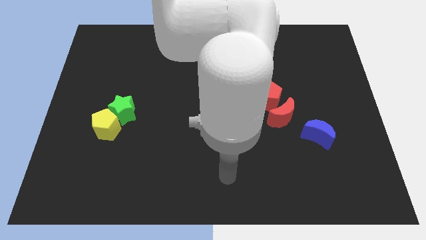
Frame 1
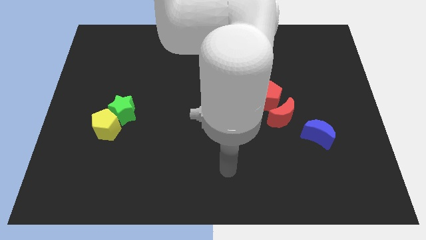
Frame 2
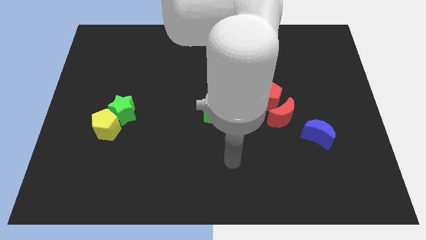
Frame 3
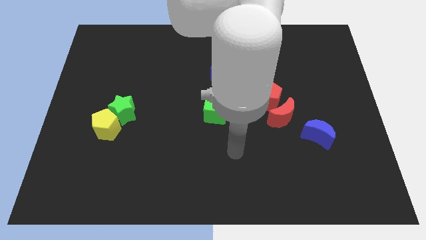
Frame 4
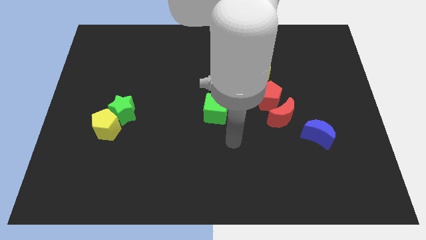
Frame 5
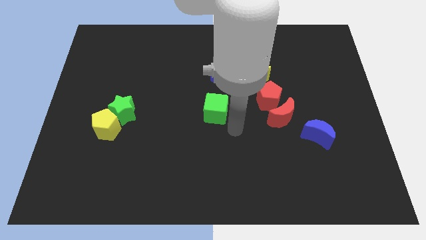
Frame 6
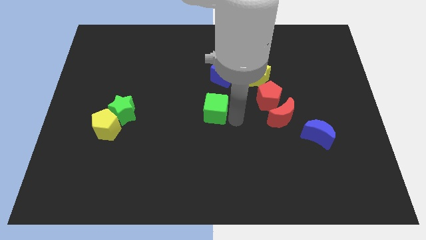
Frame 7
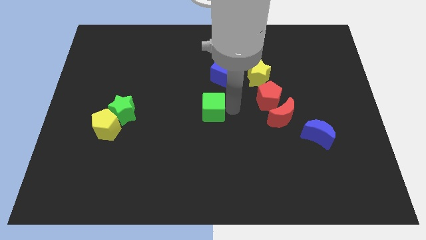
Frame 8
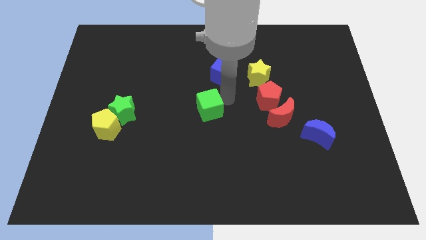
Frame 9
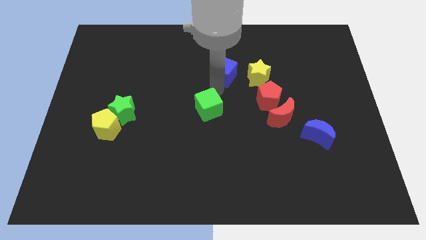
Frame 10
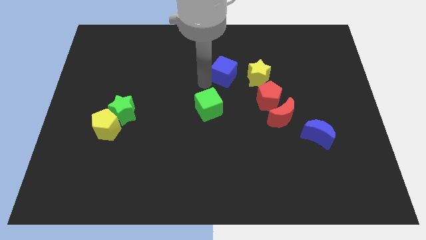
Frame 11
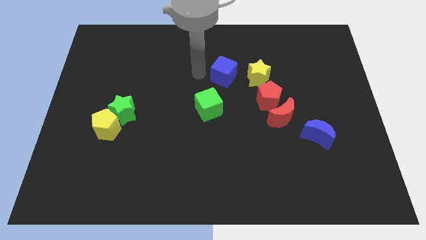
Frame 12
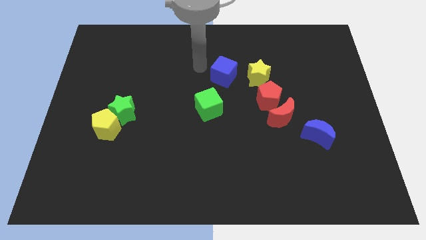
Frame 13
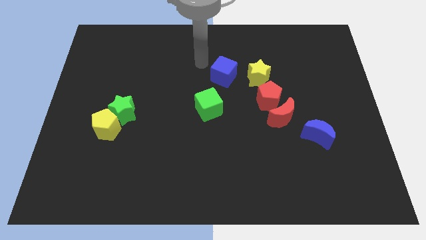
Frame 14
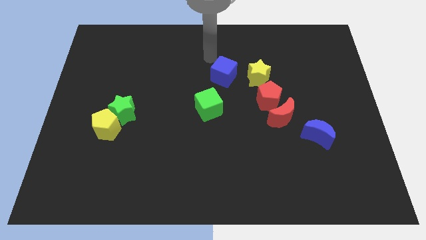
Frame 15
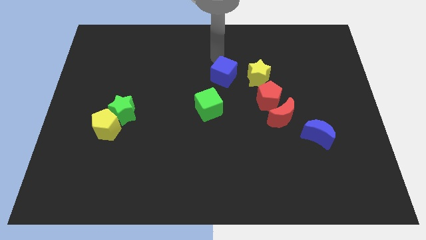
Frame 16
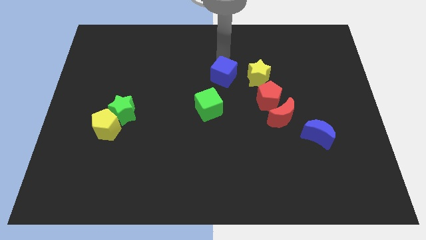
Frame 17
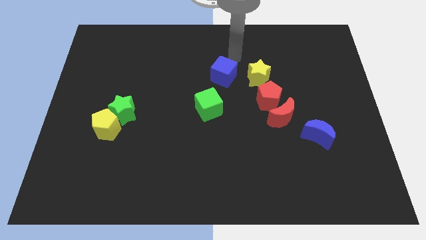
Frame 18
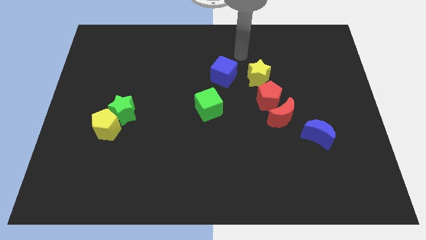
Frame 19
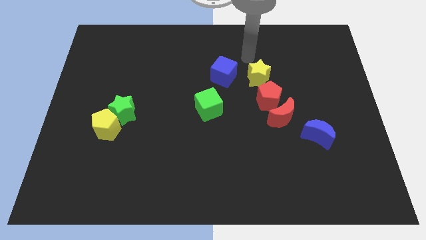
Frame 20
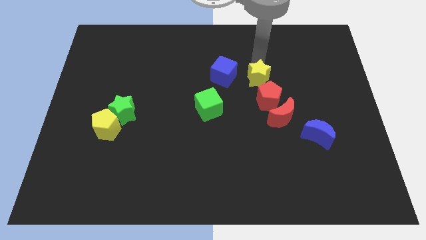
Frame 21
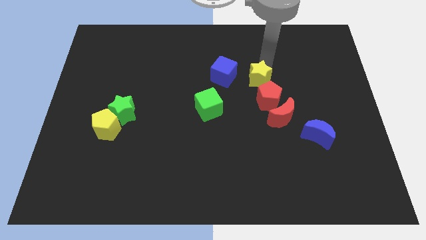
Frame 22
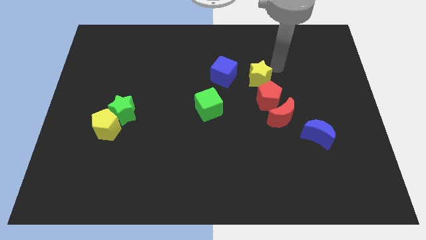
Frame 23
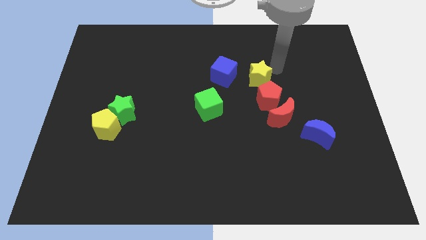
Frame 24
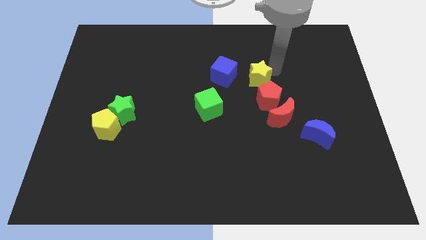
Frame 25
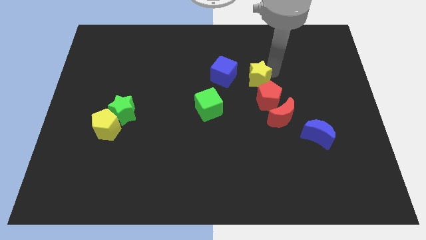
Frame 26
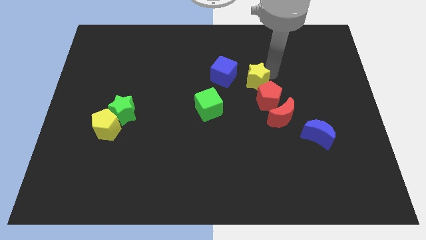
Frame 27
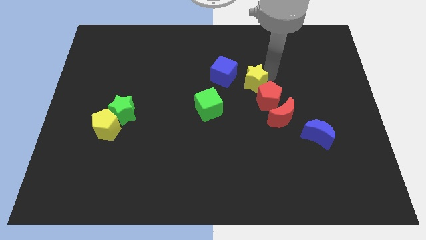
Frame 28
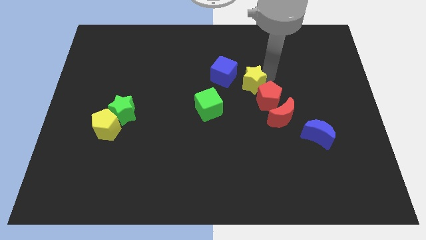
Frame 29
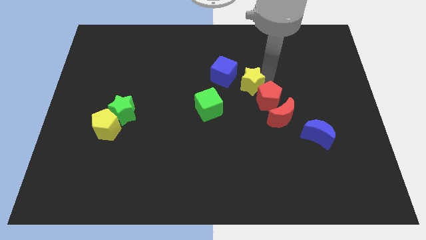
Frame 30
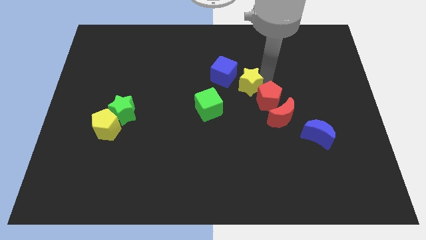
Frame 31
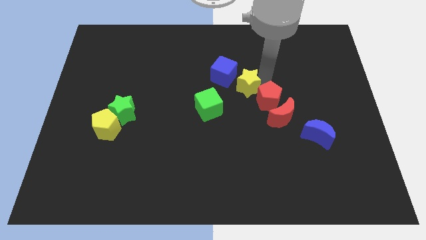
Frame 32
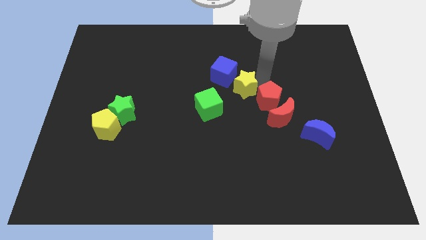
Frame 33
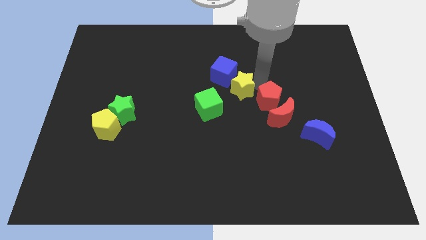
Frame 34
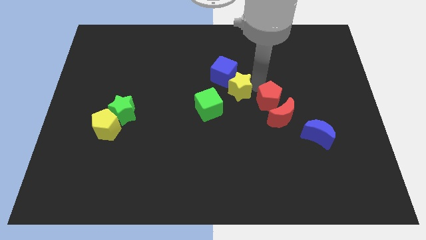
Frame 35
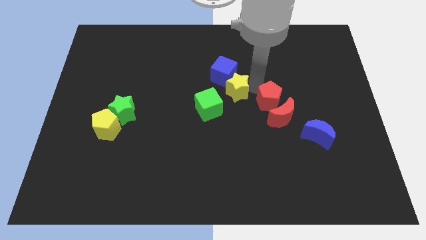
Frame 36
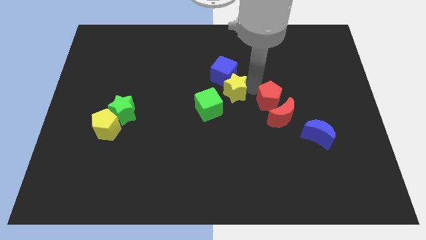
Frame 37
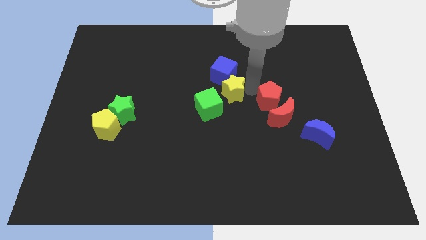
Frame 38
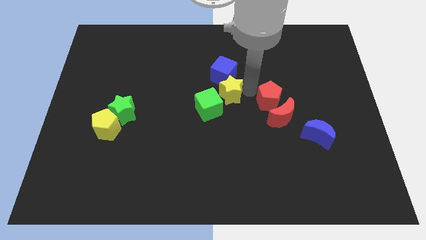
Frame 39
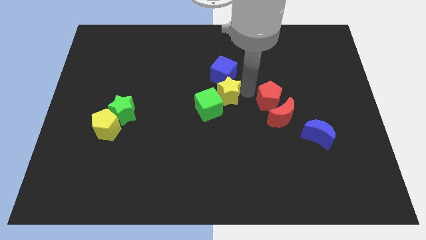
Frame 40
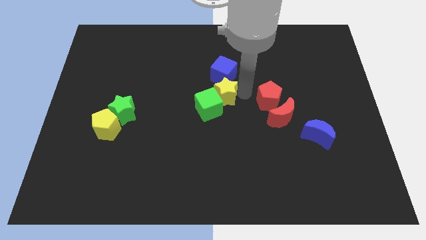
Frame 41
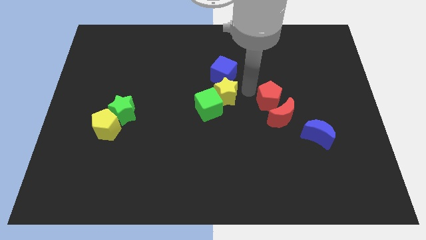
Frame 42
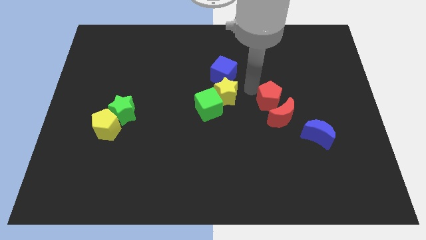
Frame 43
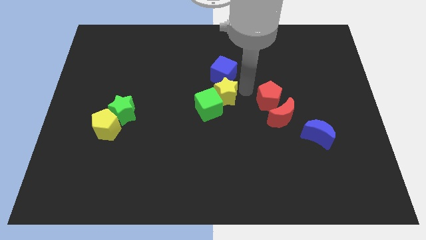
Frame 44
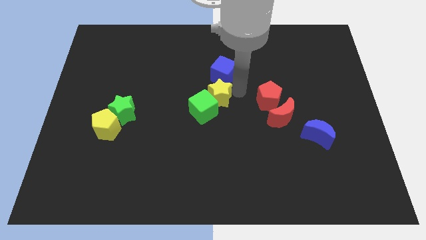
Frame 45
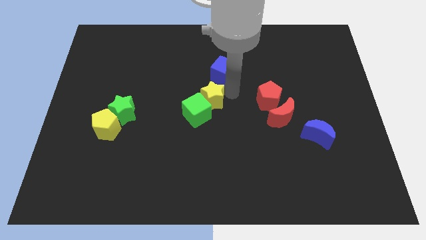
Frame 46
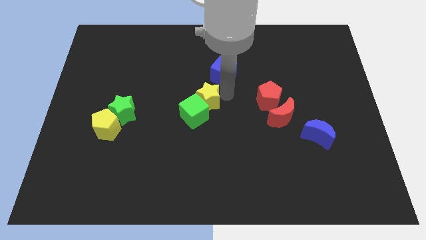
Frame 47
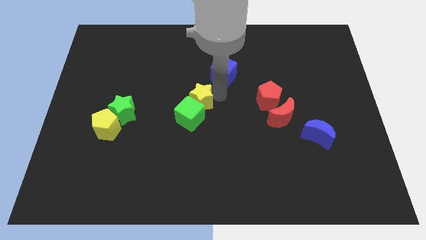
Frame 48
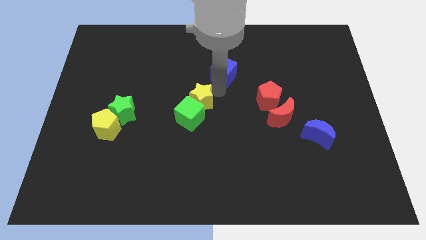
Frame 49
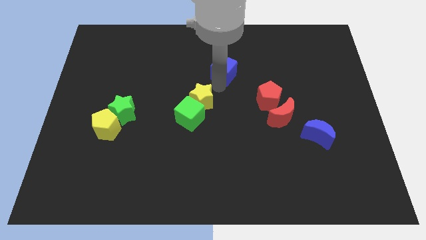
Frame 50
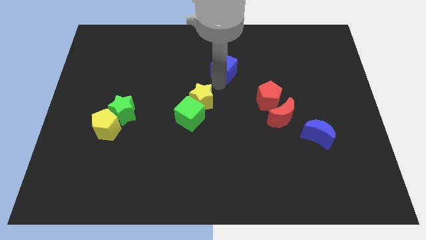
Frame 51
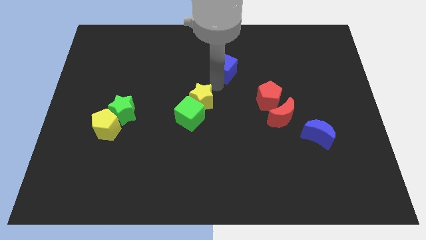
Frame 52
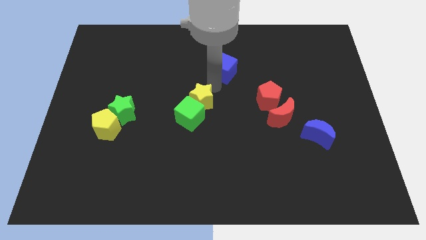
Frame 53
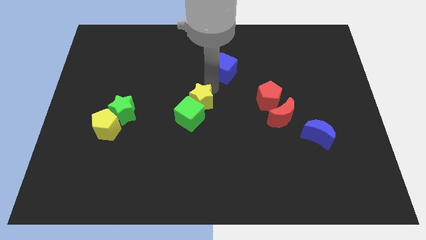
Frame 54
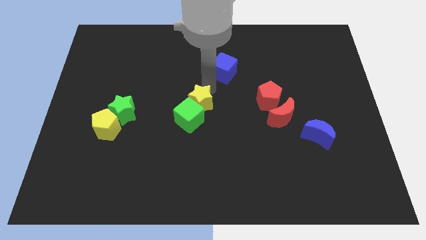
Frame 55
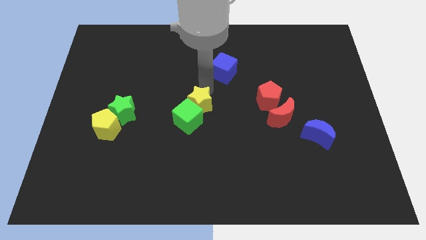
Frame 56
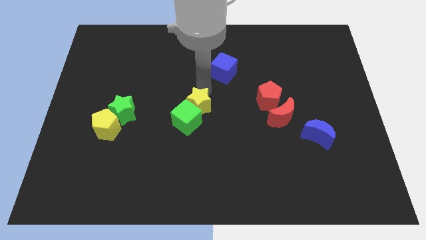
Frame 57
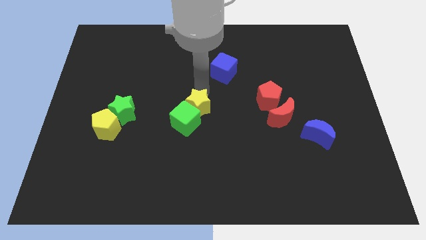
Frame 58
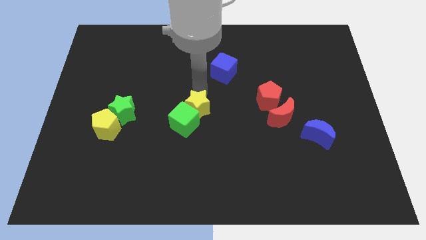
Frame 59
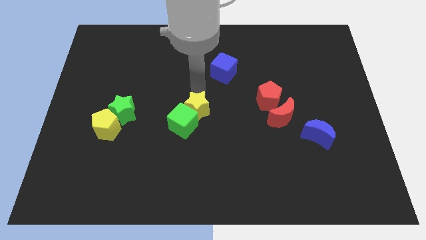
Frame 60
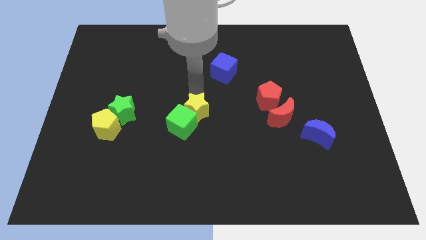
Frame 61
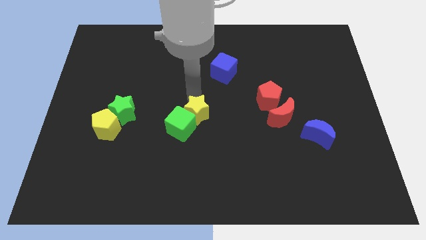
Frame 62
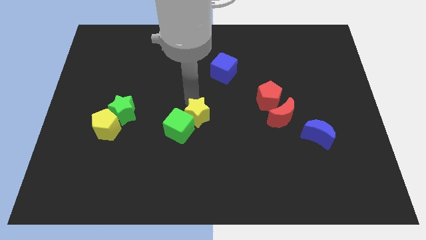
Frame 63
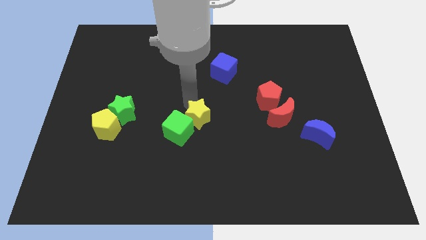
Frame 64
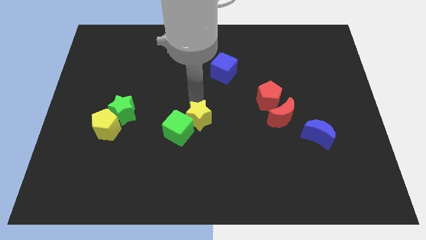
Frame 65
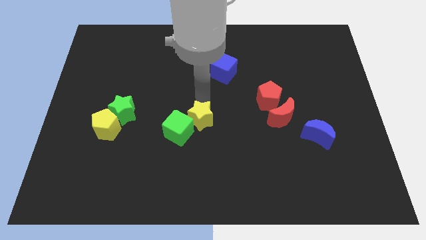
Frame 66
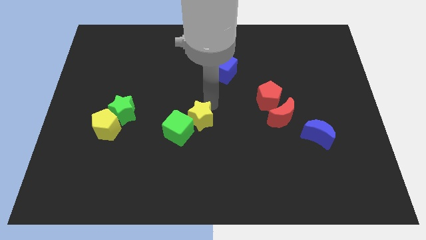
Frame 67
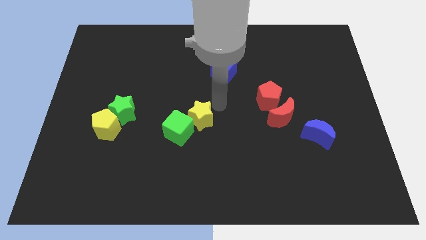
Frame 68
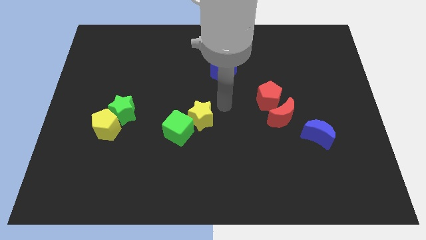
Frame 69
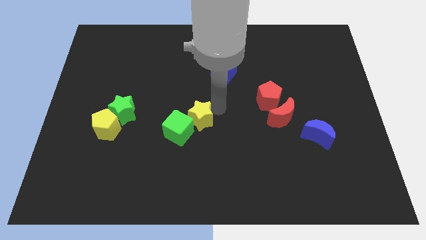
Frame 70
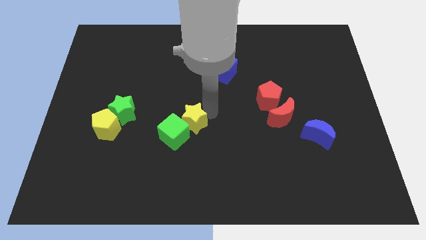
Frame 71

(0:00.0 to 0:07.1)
push the yellow star diagonally downwards and to the left

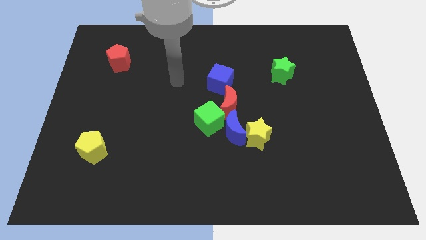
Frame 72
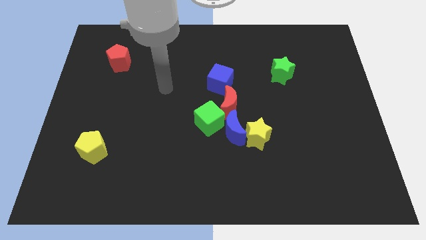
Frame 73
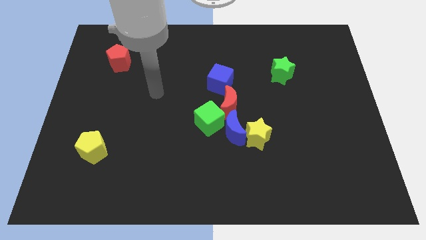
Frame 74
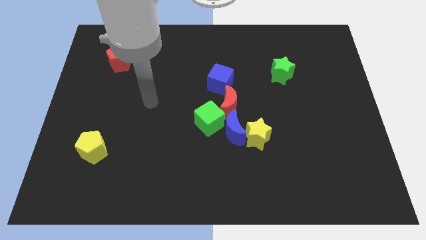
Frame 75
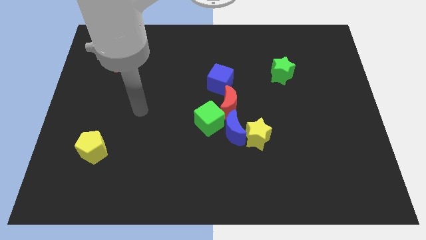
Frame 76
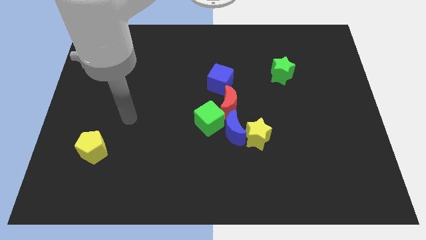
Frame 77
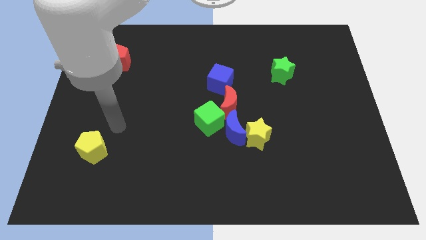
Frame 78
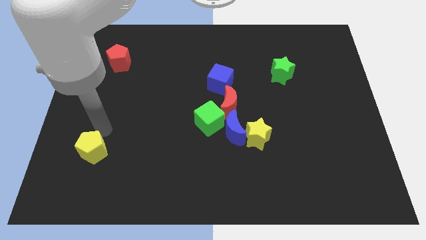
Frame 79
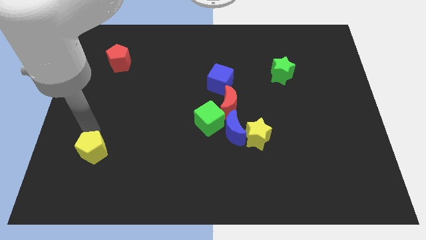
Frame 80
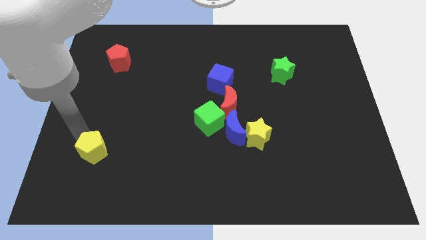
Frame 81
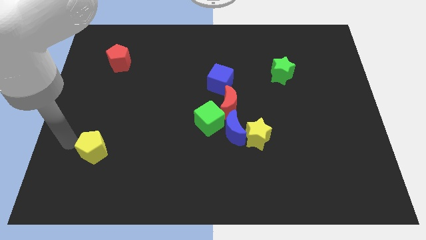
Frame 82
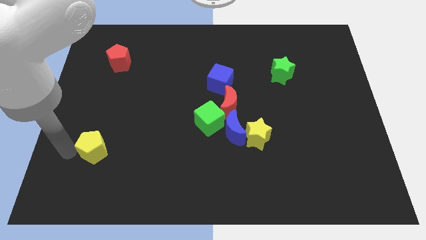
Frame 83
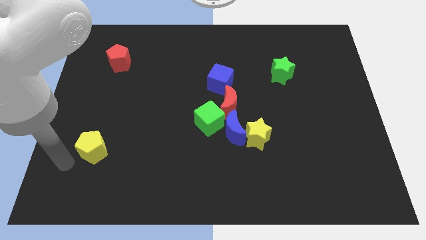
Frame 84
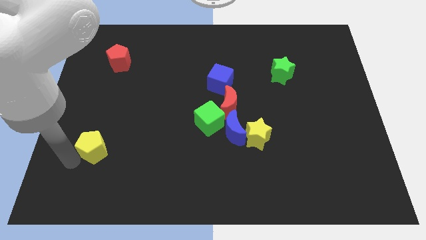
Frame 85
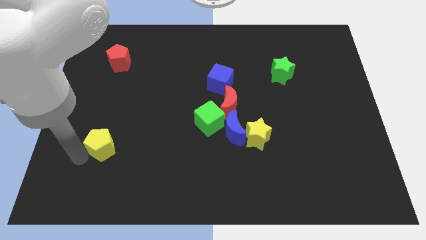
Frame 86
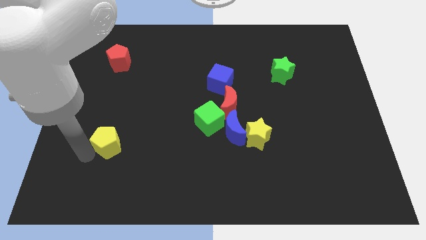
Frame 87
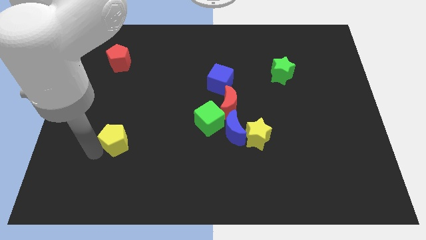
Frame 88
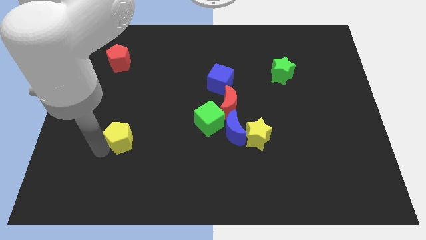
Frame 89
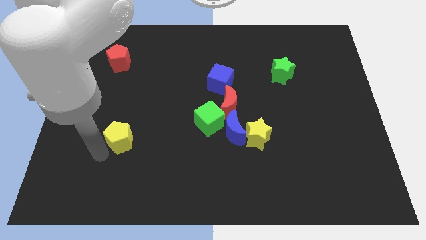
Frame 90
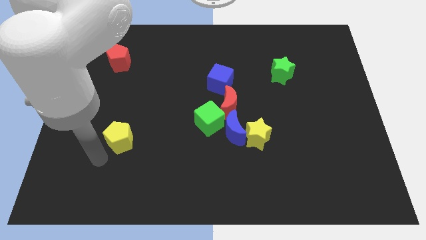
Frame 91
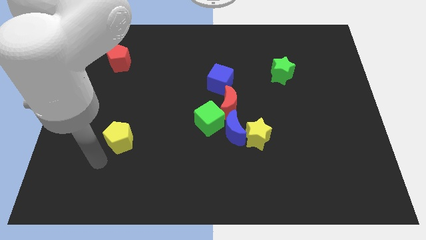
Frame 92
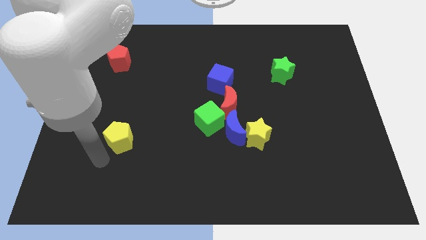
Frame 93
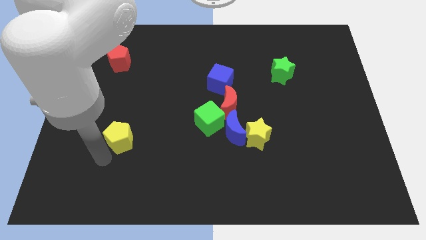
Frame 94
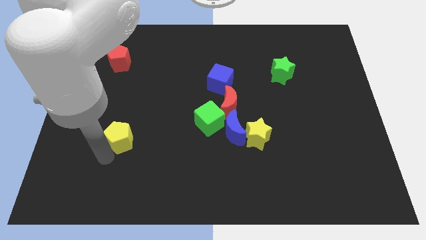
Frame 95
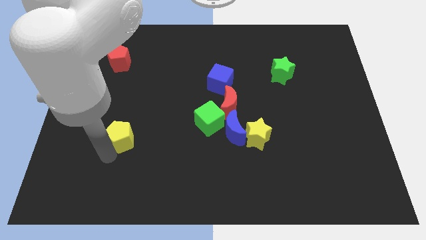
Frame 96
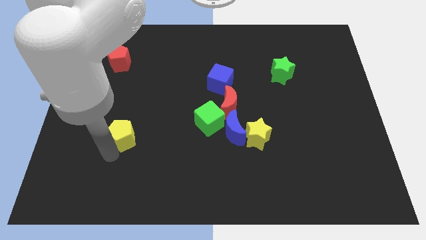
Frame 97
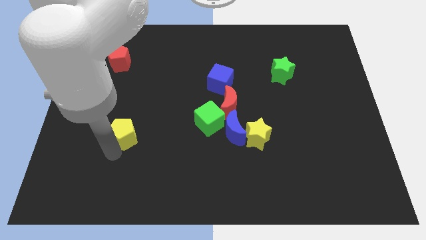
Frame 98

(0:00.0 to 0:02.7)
push the yellow pentagon a little diagonally upwards and to the right
